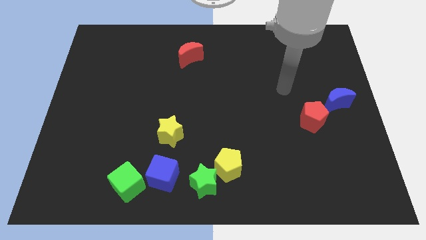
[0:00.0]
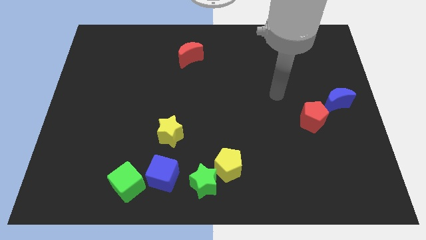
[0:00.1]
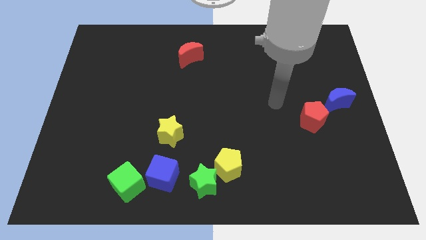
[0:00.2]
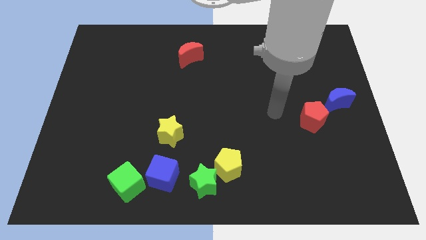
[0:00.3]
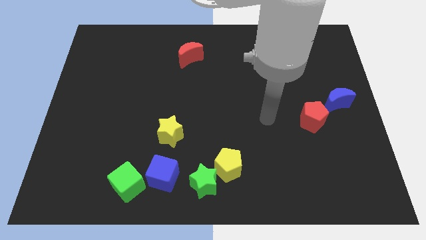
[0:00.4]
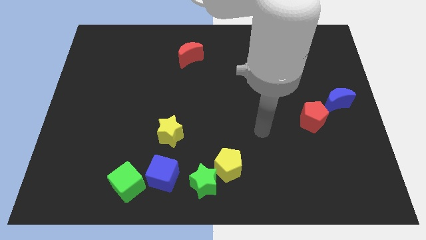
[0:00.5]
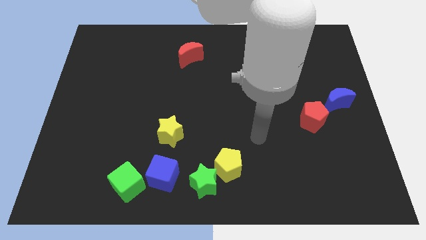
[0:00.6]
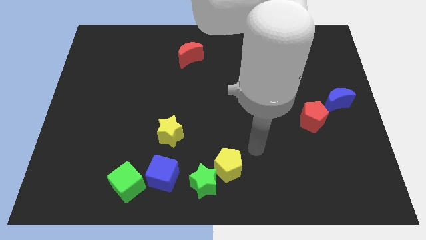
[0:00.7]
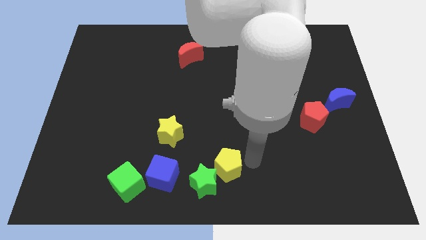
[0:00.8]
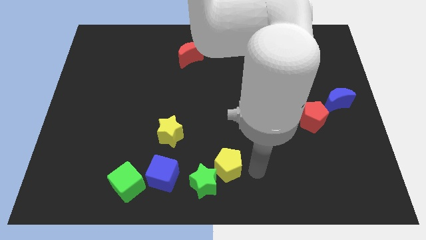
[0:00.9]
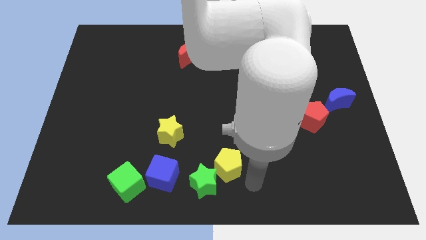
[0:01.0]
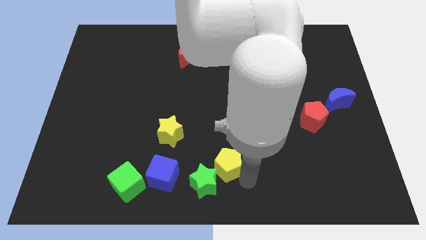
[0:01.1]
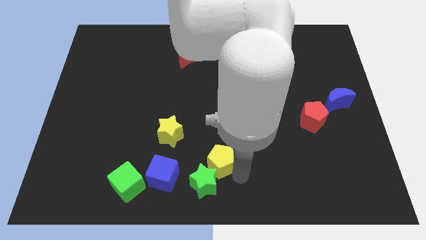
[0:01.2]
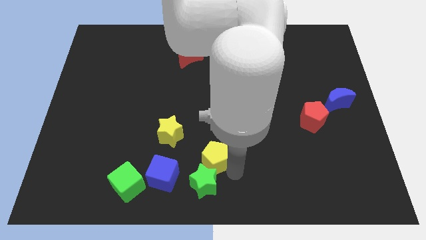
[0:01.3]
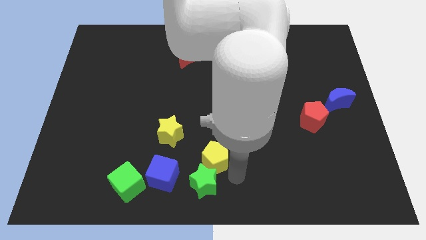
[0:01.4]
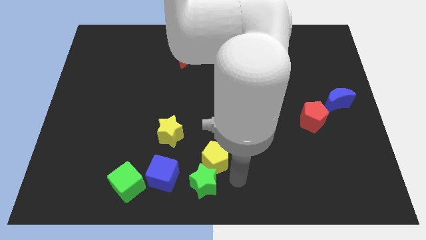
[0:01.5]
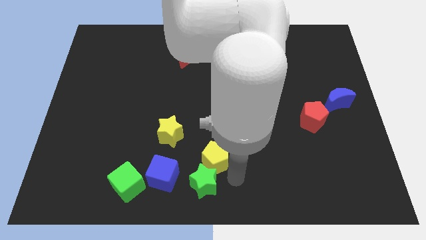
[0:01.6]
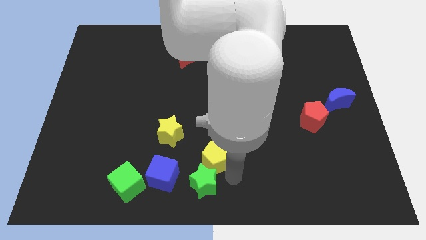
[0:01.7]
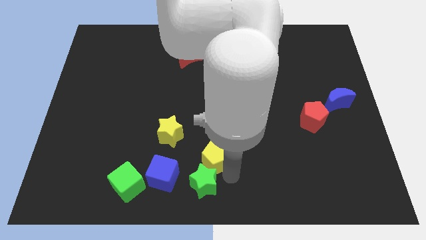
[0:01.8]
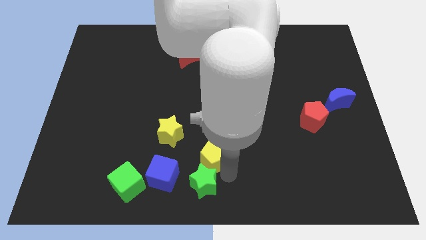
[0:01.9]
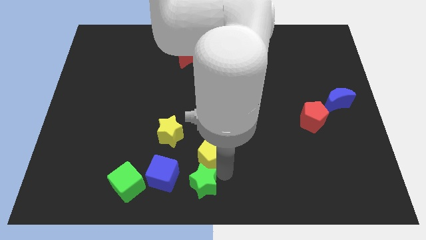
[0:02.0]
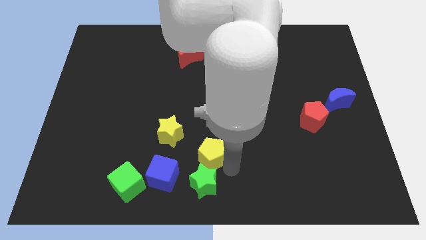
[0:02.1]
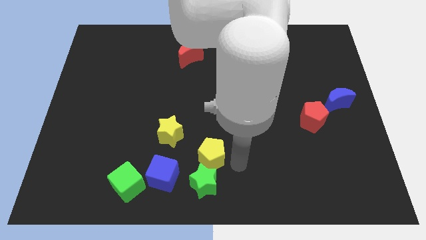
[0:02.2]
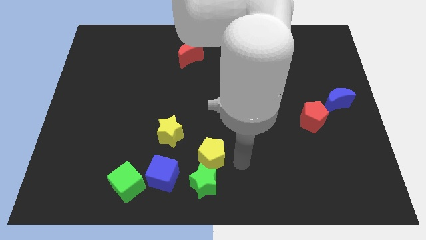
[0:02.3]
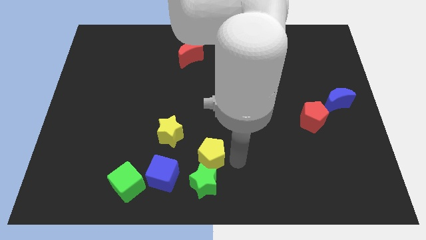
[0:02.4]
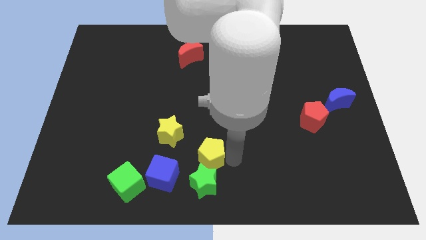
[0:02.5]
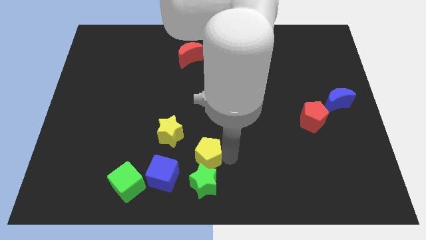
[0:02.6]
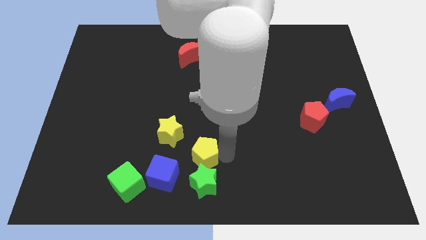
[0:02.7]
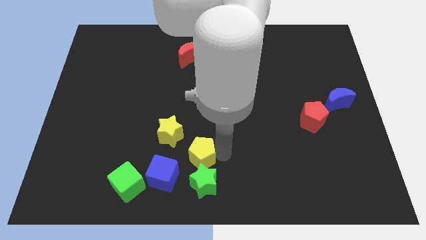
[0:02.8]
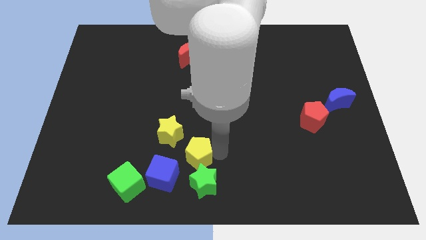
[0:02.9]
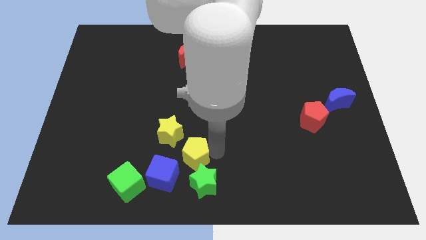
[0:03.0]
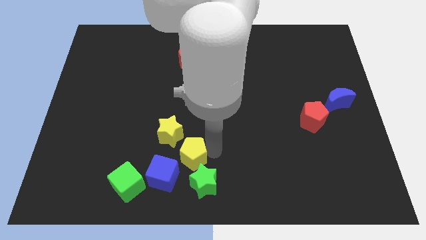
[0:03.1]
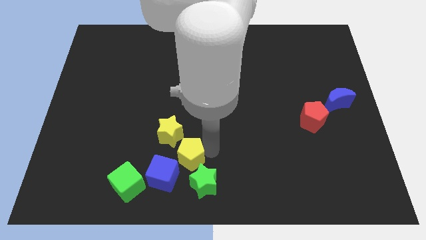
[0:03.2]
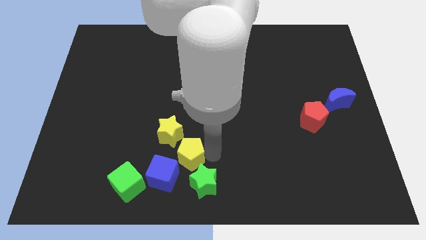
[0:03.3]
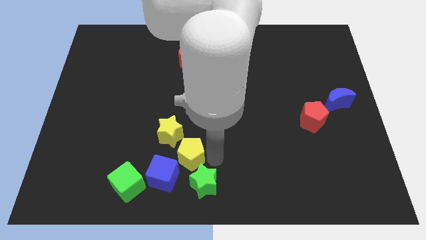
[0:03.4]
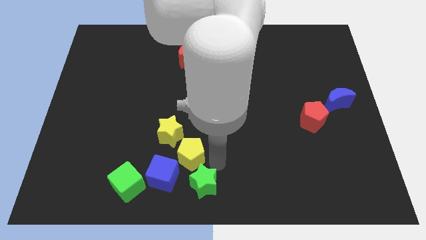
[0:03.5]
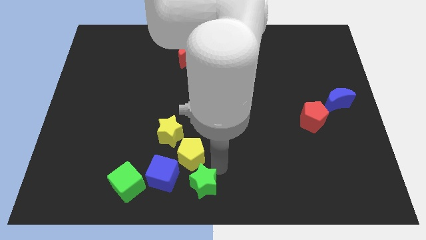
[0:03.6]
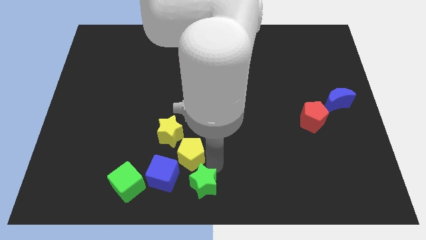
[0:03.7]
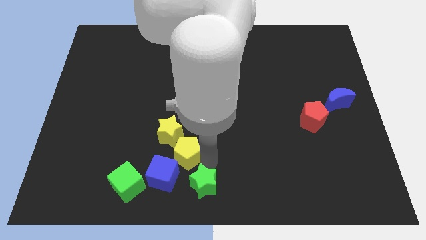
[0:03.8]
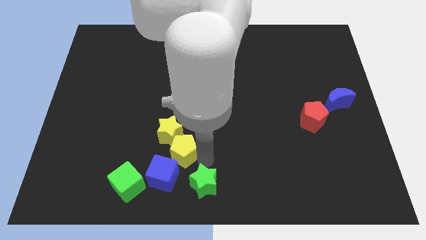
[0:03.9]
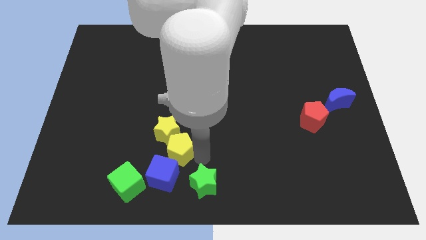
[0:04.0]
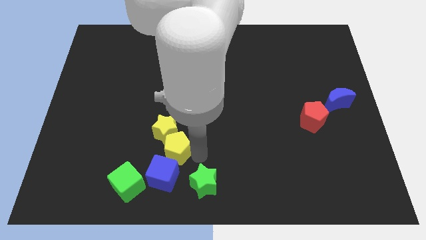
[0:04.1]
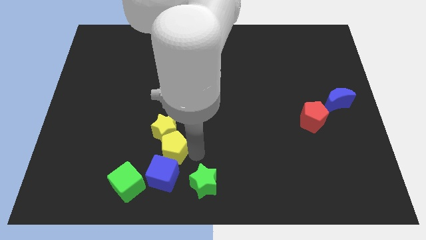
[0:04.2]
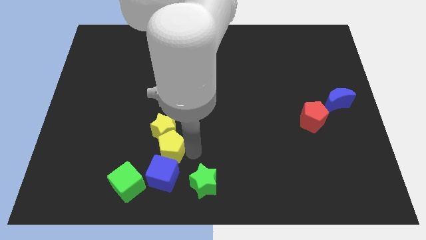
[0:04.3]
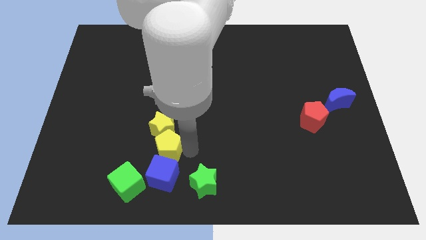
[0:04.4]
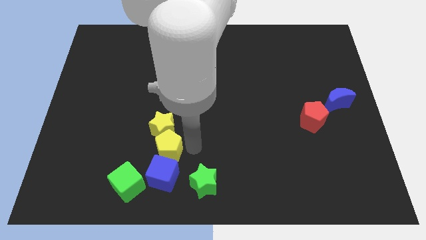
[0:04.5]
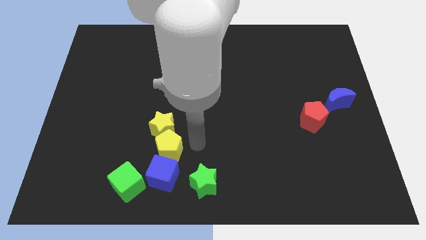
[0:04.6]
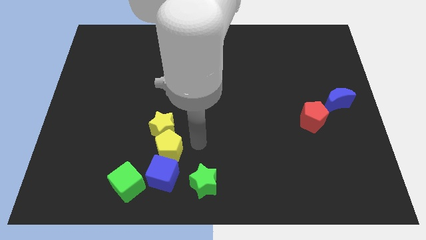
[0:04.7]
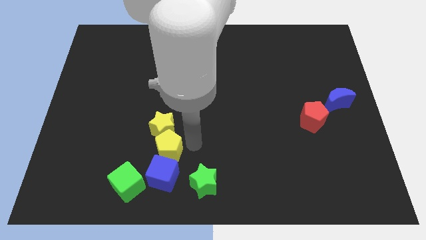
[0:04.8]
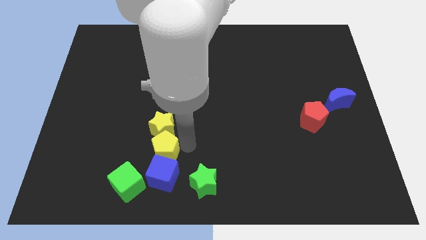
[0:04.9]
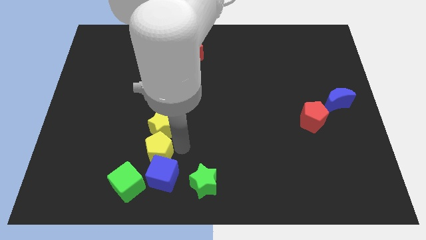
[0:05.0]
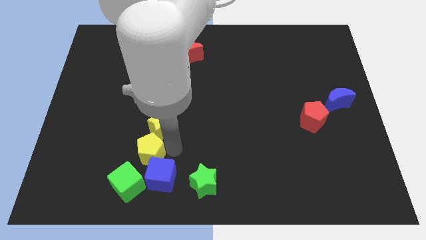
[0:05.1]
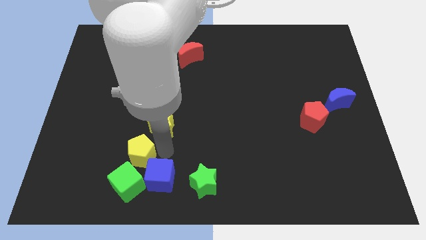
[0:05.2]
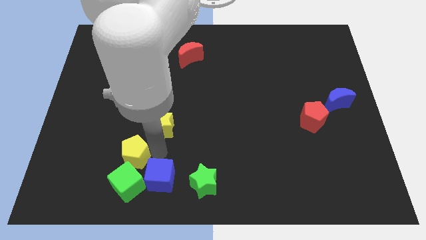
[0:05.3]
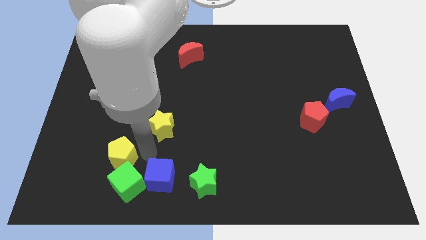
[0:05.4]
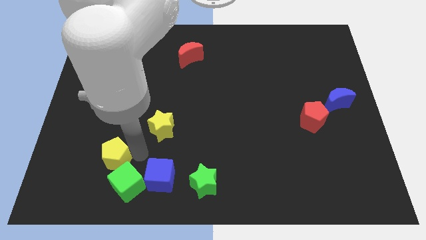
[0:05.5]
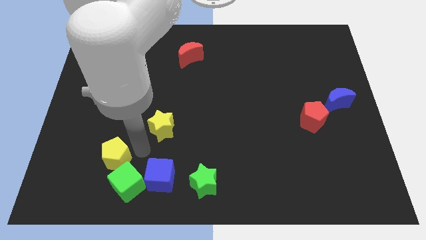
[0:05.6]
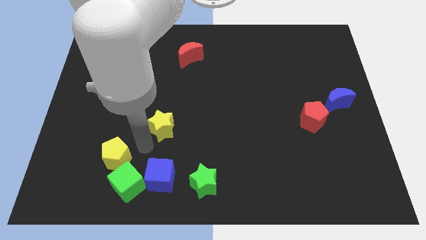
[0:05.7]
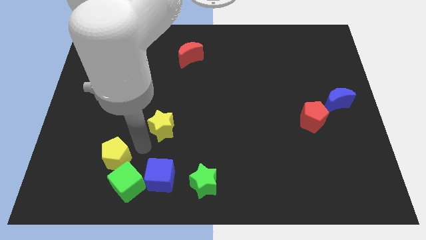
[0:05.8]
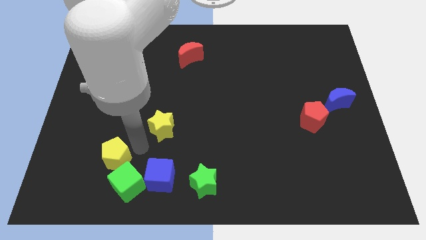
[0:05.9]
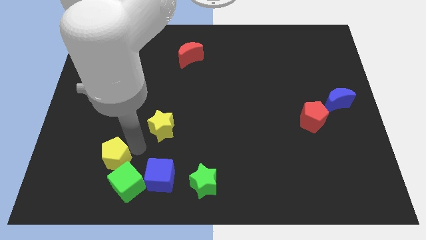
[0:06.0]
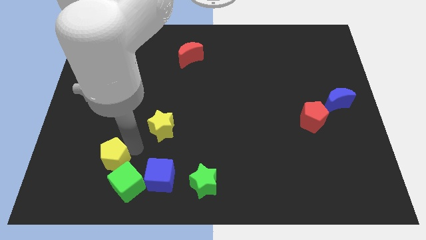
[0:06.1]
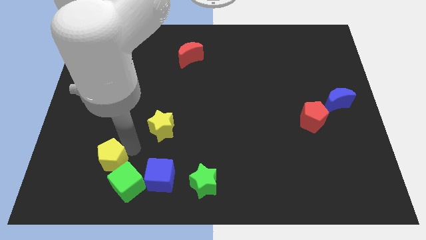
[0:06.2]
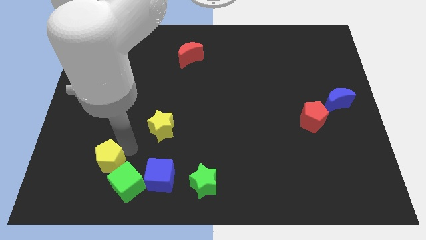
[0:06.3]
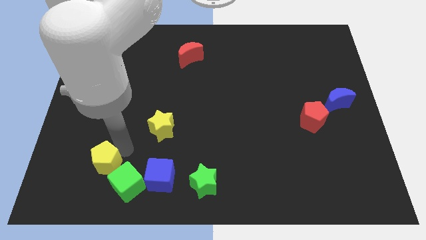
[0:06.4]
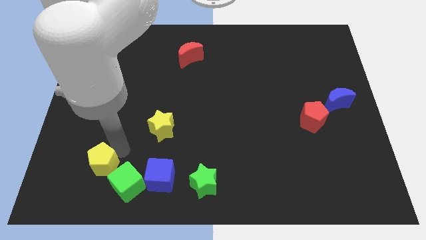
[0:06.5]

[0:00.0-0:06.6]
slide the yellow pentagon just left of the green cube

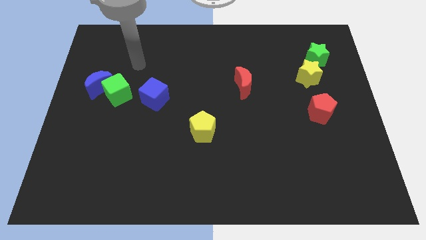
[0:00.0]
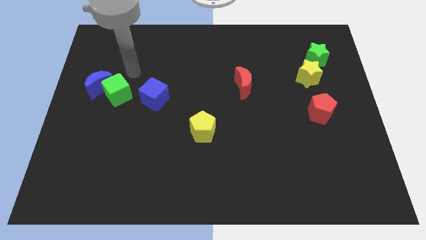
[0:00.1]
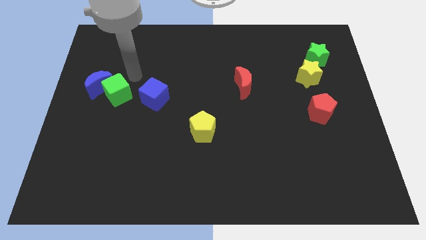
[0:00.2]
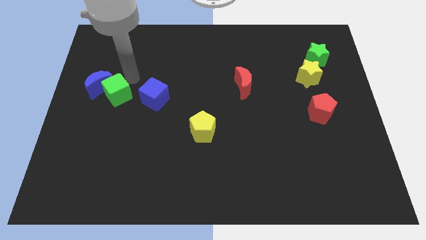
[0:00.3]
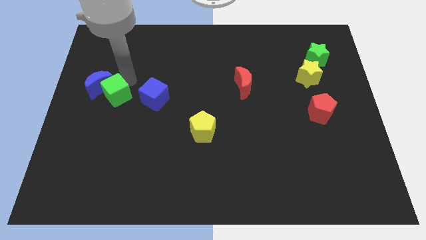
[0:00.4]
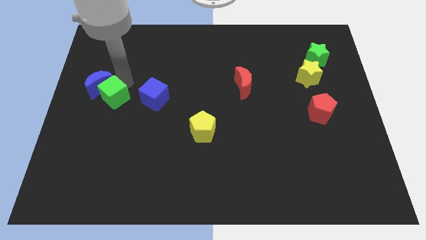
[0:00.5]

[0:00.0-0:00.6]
move the green cube to the bottom of the blue moon
